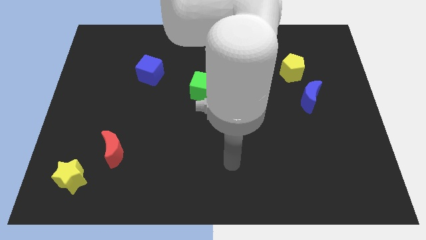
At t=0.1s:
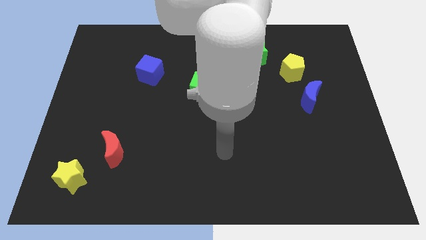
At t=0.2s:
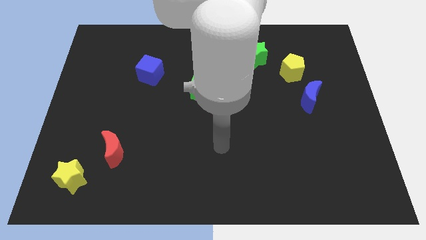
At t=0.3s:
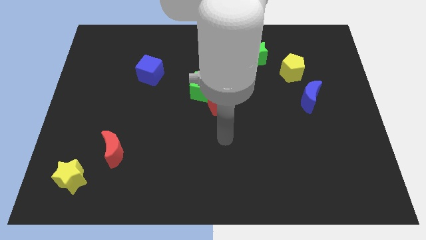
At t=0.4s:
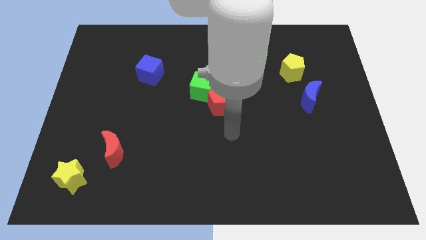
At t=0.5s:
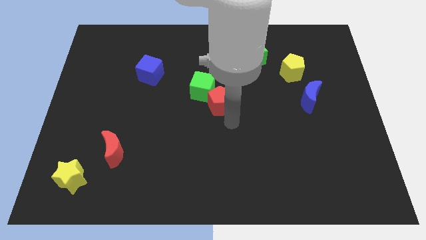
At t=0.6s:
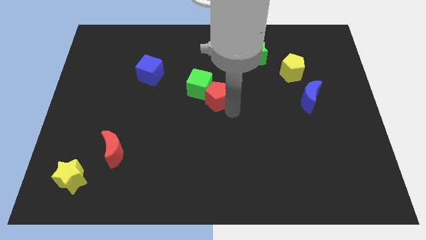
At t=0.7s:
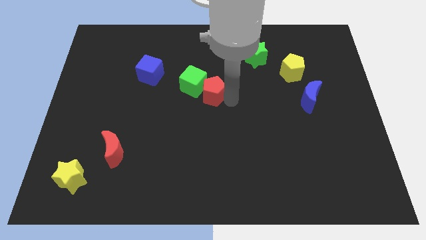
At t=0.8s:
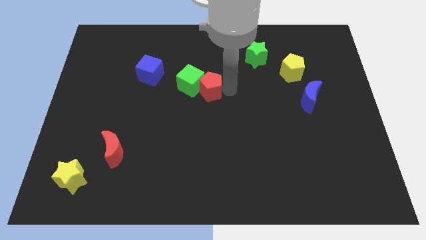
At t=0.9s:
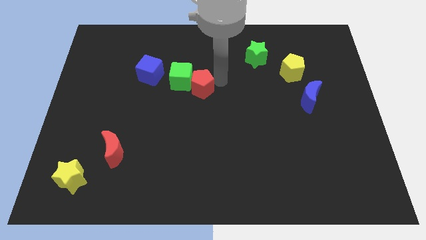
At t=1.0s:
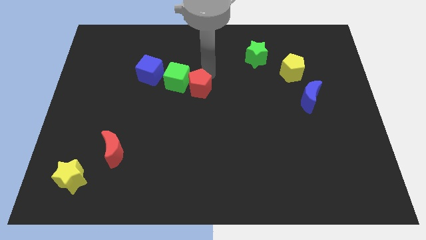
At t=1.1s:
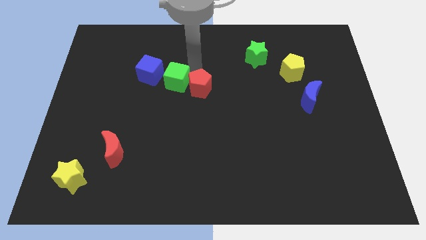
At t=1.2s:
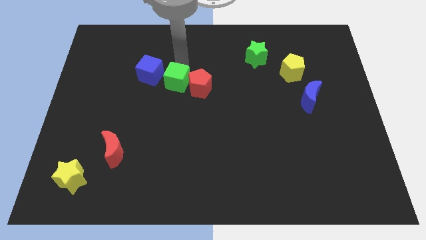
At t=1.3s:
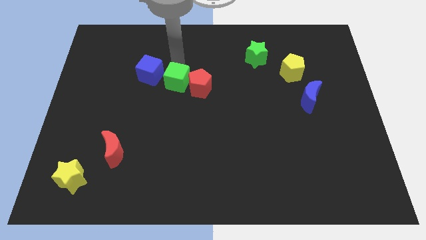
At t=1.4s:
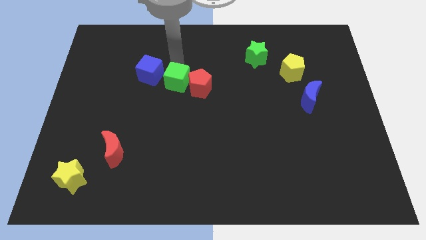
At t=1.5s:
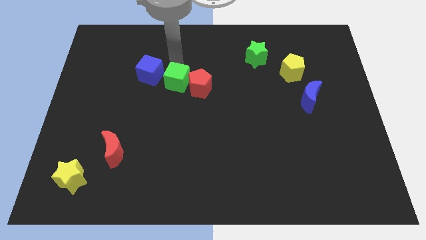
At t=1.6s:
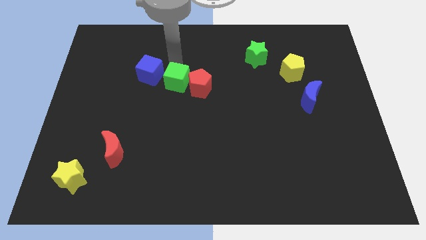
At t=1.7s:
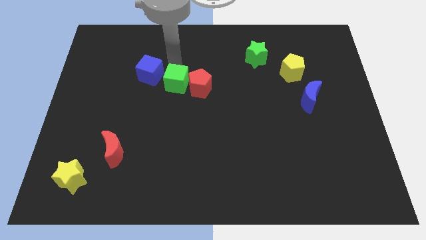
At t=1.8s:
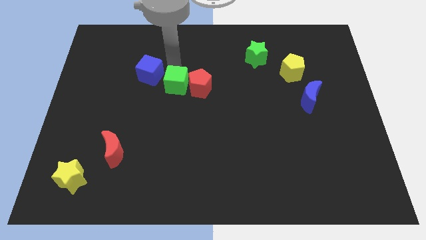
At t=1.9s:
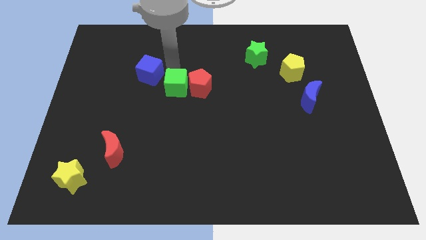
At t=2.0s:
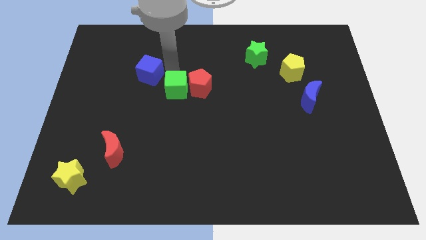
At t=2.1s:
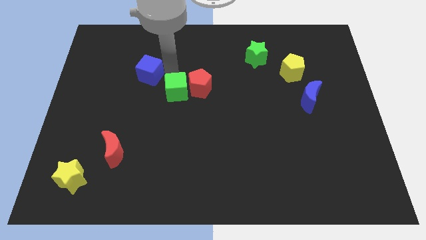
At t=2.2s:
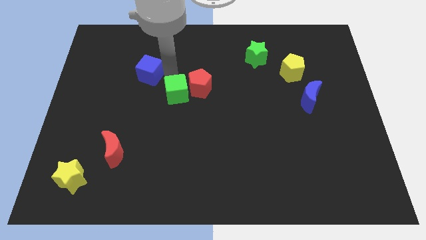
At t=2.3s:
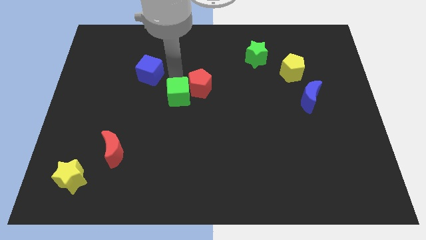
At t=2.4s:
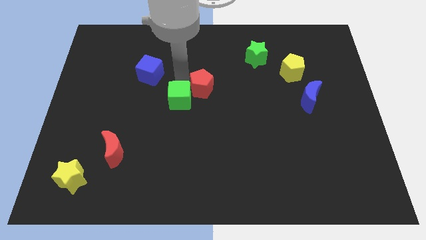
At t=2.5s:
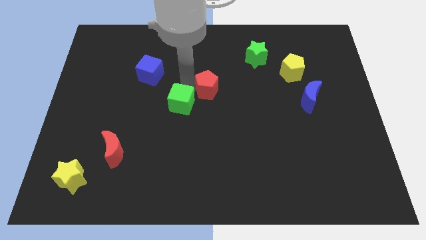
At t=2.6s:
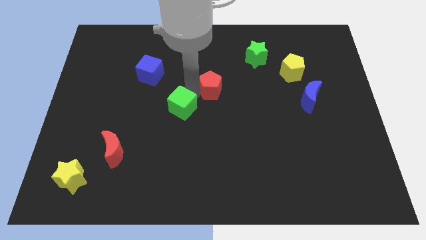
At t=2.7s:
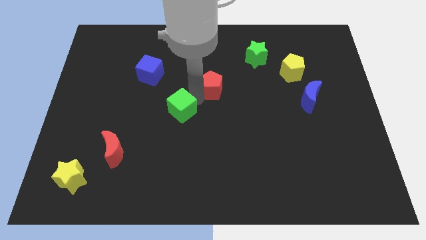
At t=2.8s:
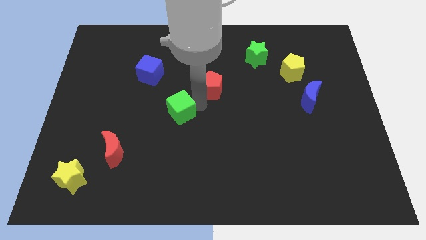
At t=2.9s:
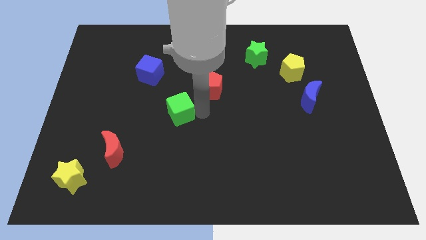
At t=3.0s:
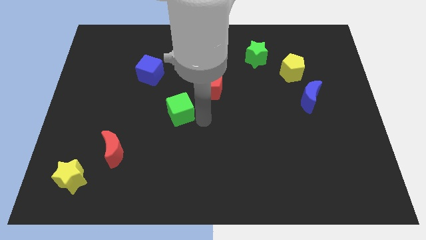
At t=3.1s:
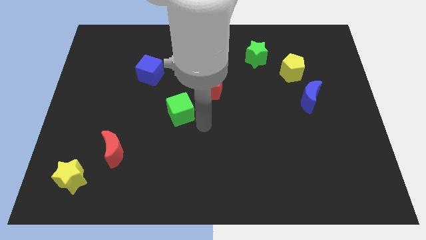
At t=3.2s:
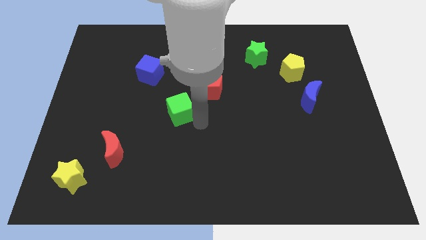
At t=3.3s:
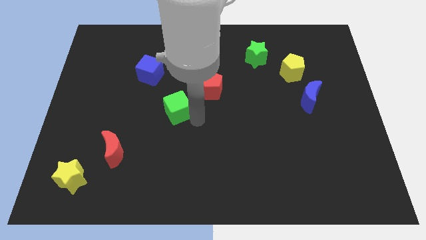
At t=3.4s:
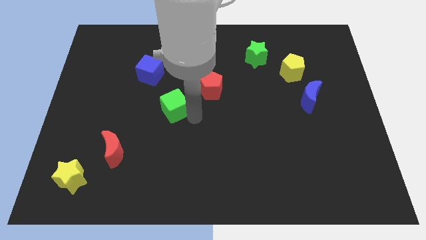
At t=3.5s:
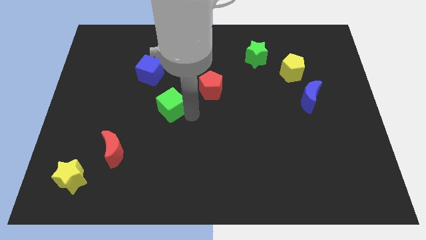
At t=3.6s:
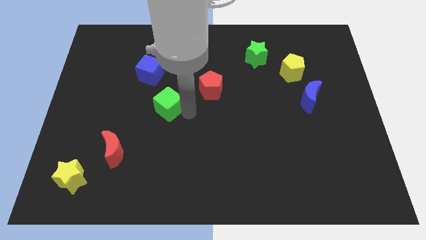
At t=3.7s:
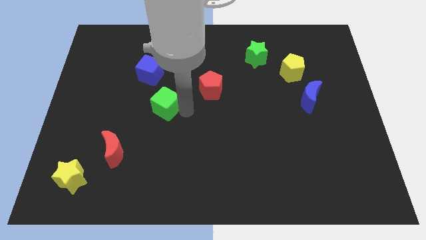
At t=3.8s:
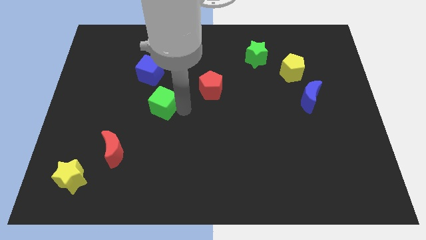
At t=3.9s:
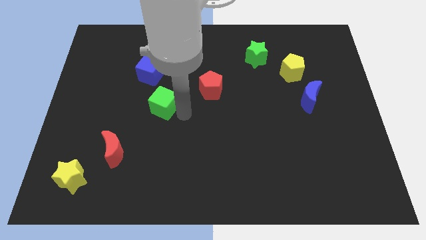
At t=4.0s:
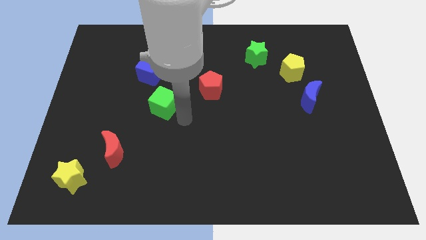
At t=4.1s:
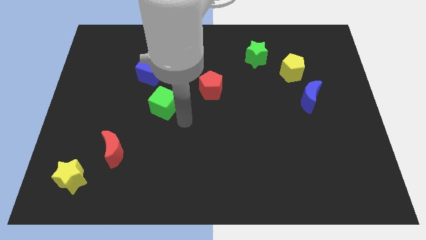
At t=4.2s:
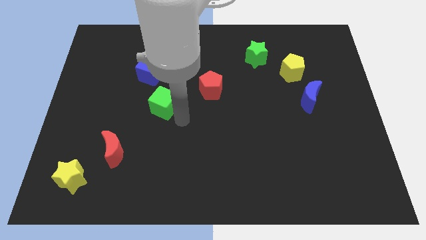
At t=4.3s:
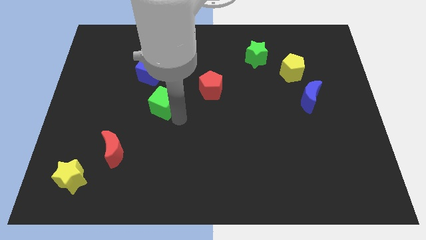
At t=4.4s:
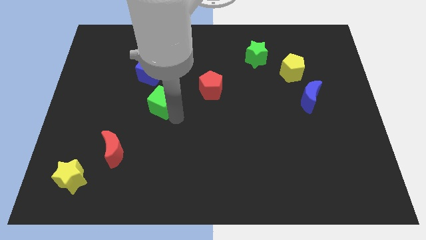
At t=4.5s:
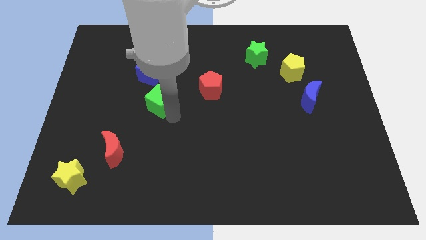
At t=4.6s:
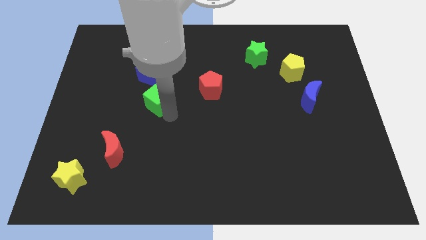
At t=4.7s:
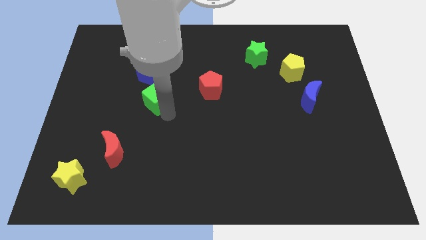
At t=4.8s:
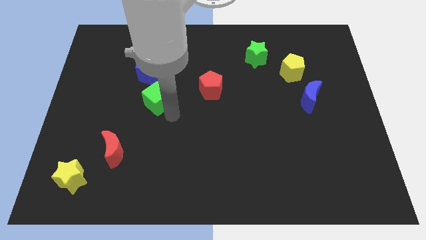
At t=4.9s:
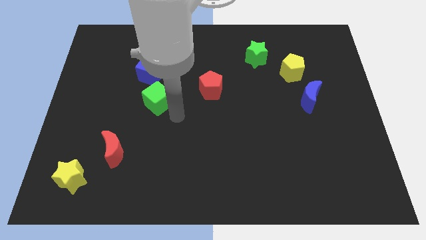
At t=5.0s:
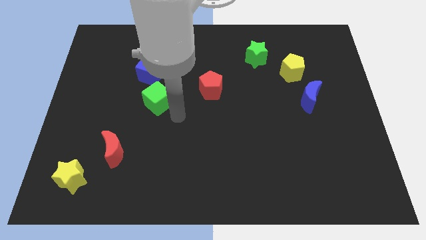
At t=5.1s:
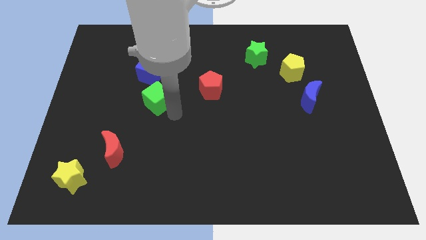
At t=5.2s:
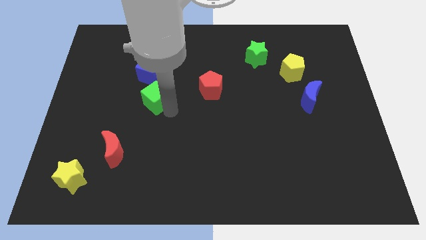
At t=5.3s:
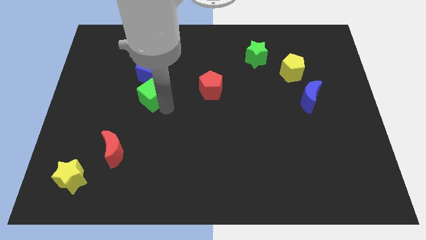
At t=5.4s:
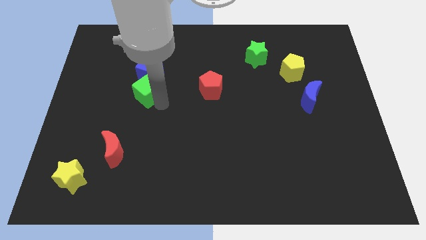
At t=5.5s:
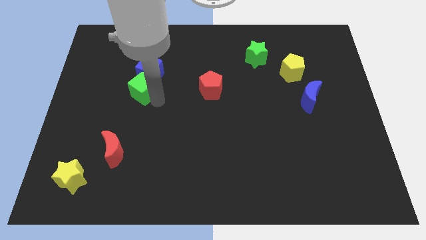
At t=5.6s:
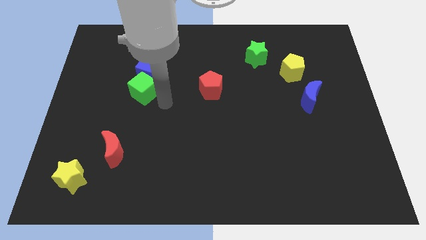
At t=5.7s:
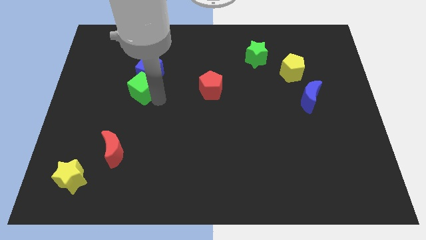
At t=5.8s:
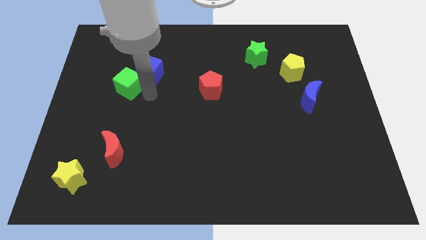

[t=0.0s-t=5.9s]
slide the green cube to the left of the blue cube

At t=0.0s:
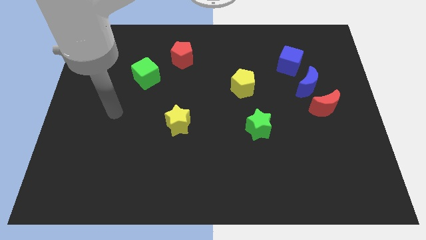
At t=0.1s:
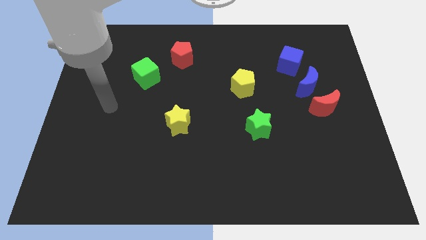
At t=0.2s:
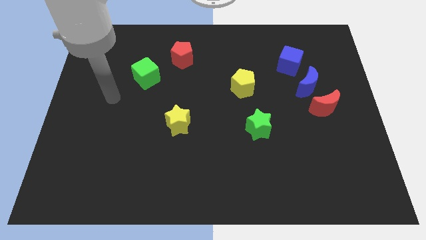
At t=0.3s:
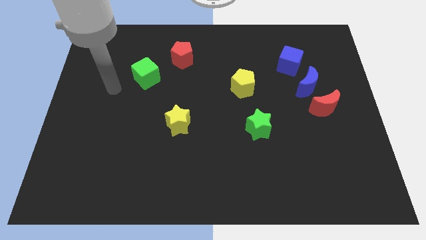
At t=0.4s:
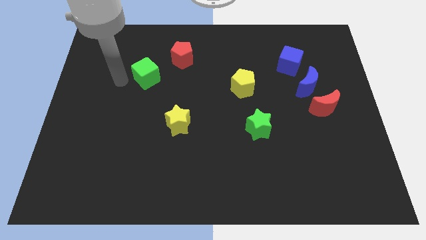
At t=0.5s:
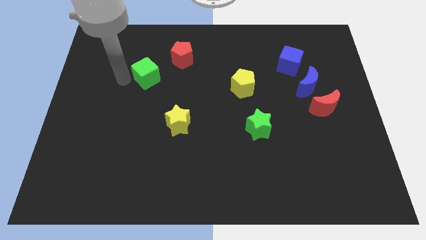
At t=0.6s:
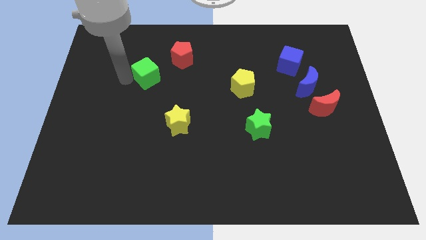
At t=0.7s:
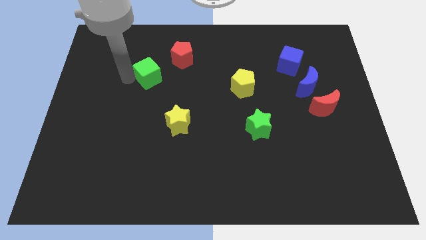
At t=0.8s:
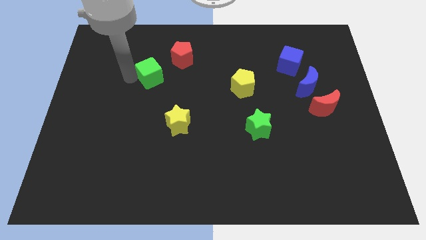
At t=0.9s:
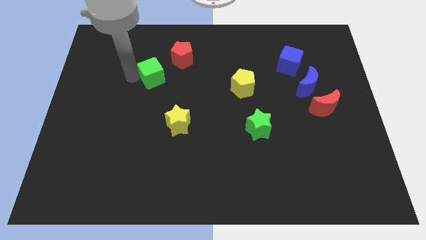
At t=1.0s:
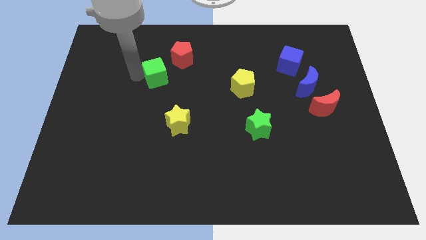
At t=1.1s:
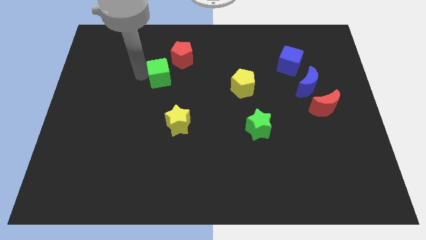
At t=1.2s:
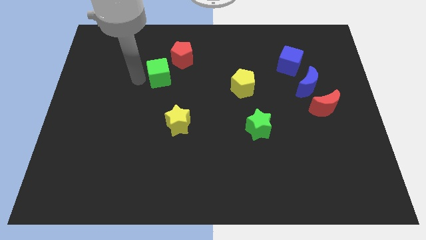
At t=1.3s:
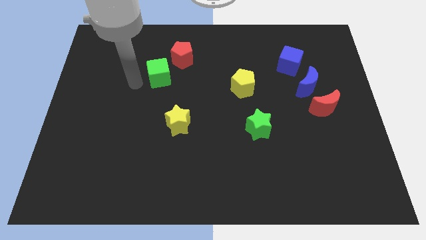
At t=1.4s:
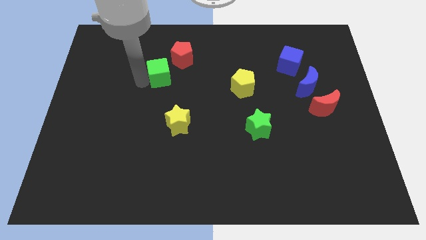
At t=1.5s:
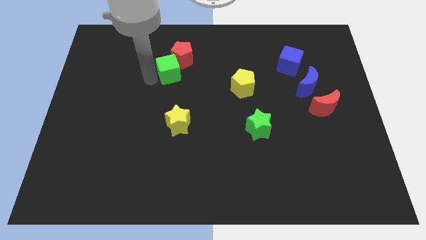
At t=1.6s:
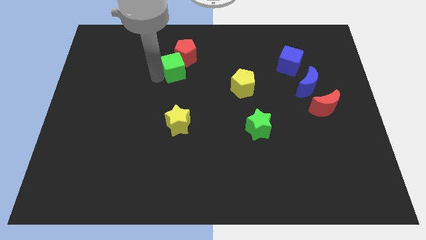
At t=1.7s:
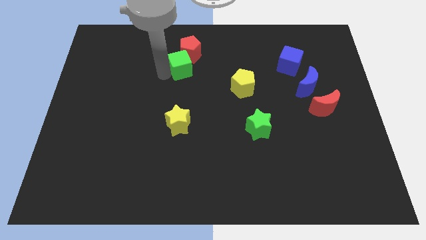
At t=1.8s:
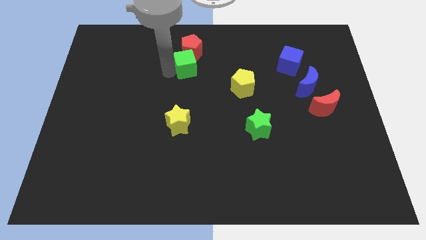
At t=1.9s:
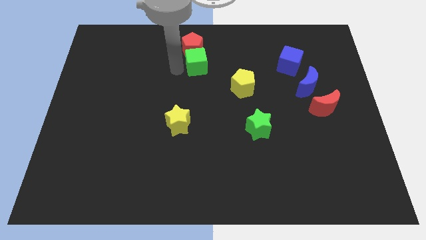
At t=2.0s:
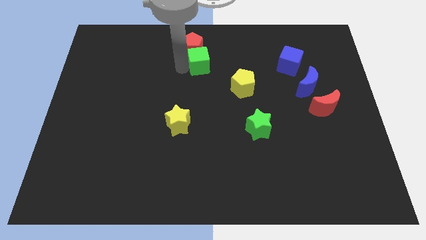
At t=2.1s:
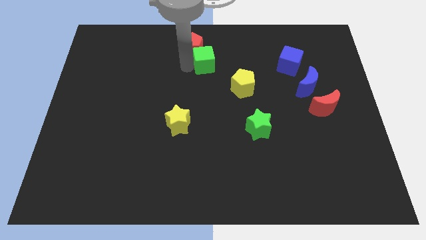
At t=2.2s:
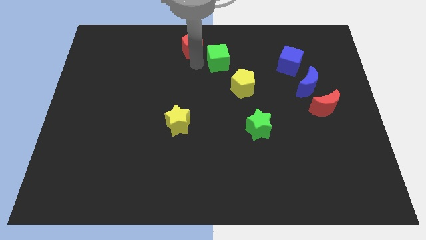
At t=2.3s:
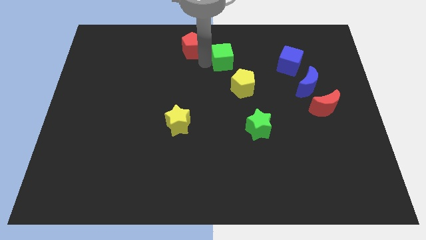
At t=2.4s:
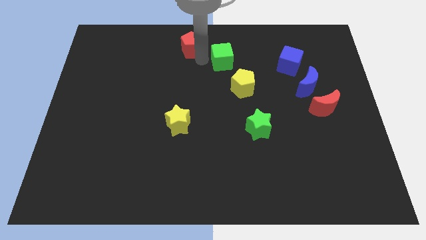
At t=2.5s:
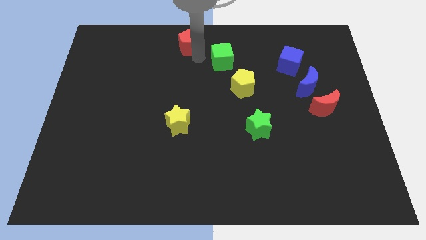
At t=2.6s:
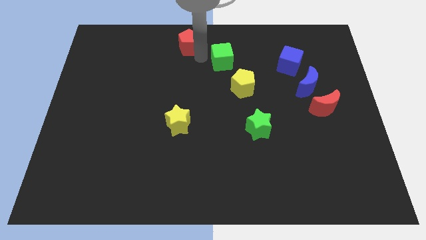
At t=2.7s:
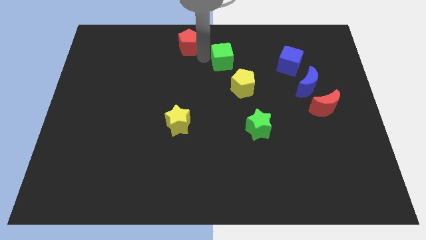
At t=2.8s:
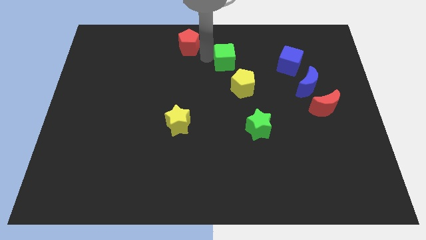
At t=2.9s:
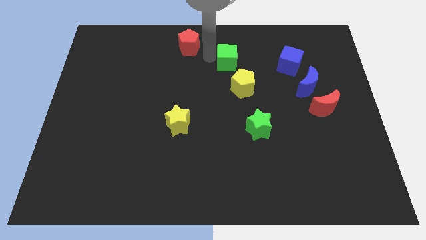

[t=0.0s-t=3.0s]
move the green cube just left of the blue cube
